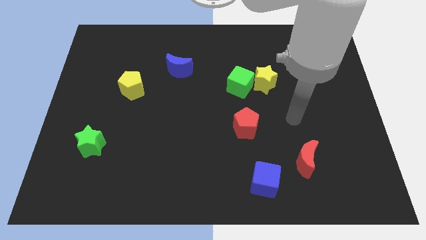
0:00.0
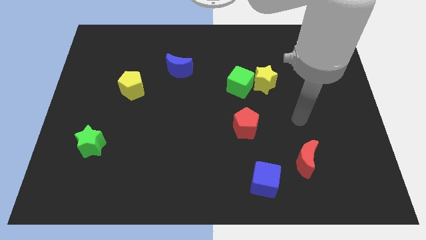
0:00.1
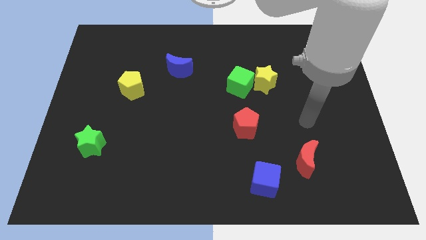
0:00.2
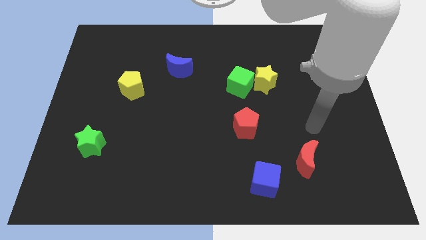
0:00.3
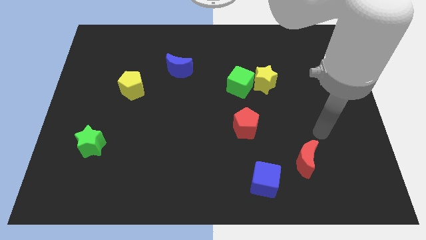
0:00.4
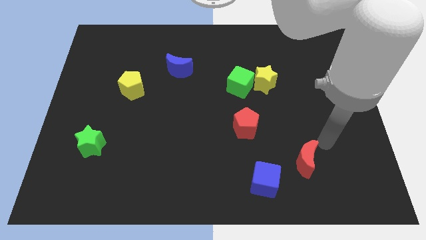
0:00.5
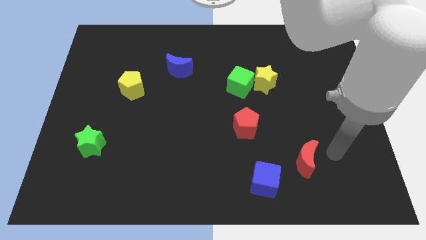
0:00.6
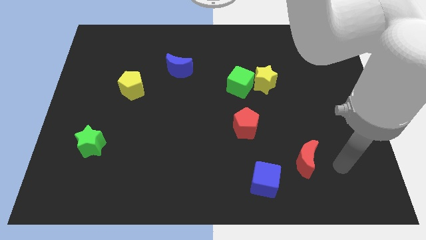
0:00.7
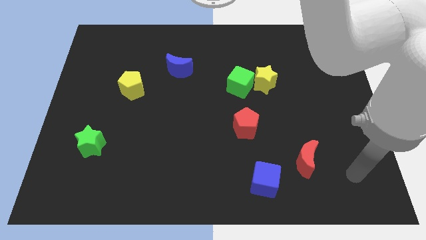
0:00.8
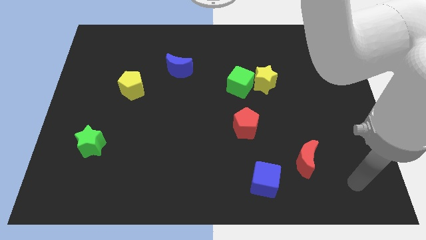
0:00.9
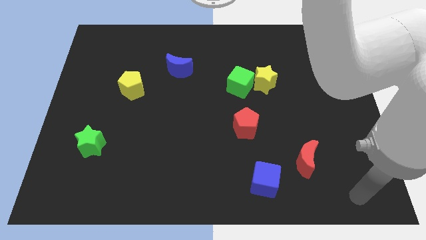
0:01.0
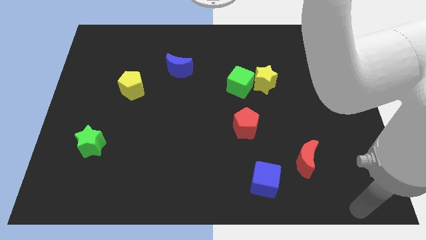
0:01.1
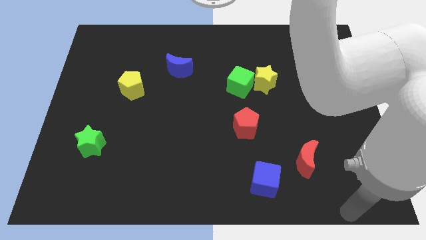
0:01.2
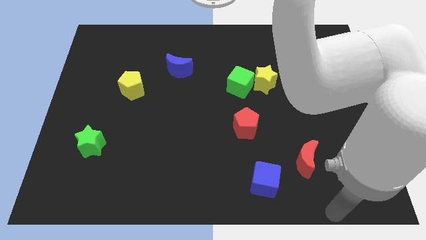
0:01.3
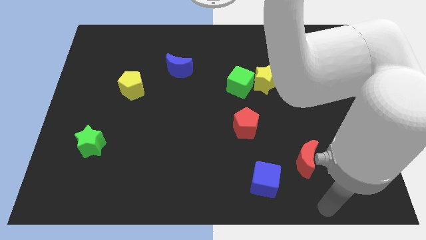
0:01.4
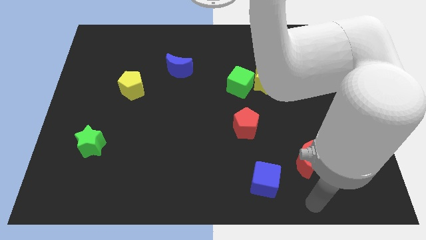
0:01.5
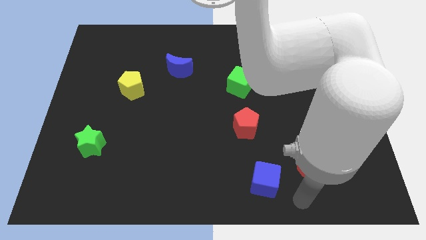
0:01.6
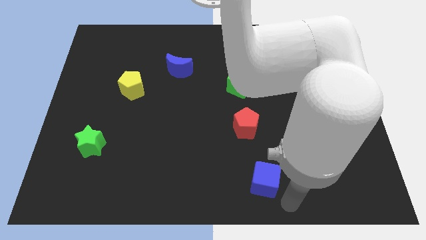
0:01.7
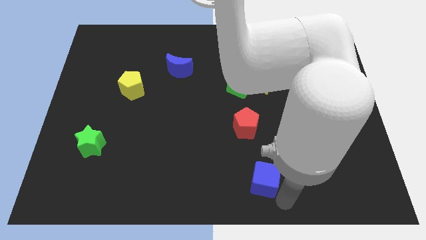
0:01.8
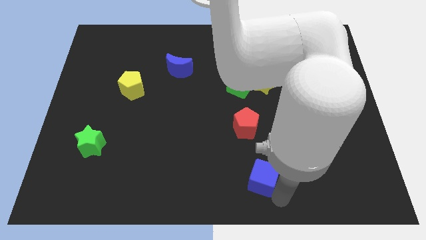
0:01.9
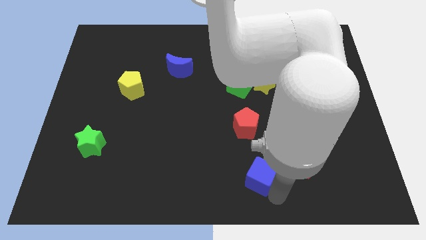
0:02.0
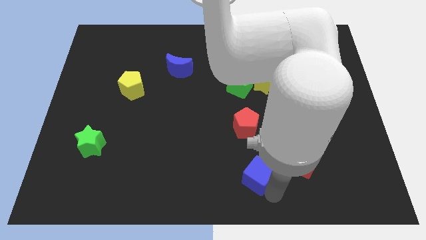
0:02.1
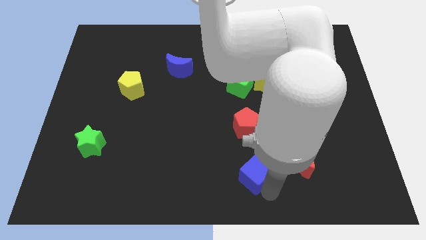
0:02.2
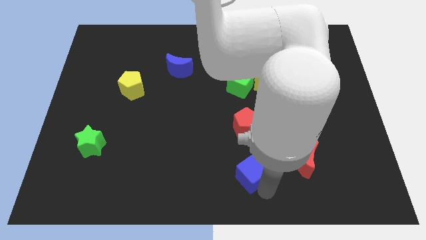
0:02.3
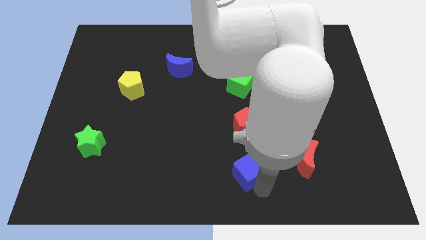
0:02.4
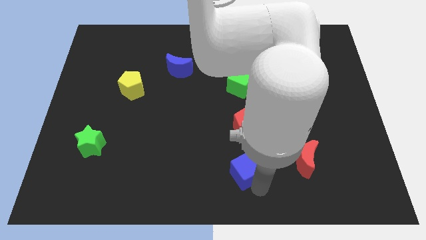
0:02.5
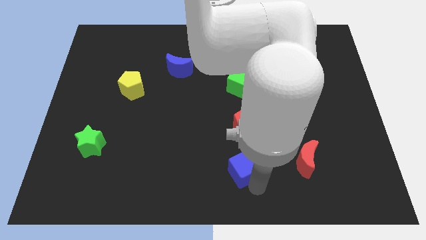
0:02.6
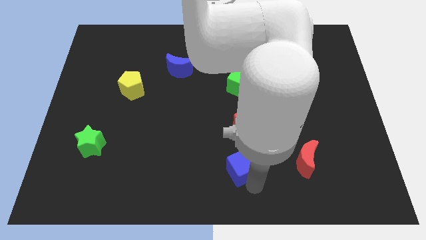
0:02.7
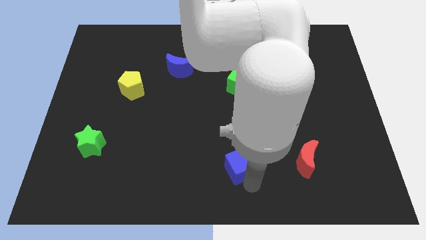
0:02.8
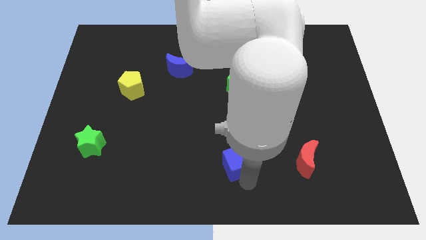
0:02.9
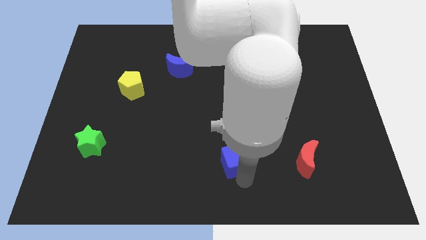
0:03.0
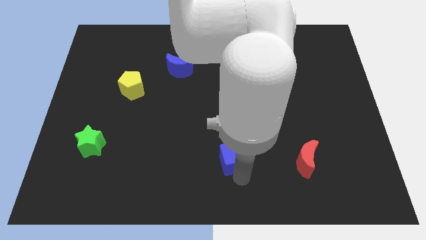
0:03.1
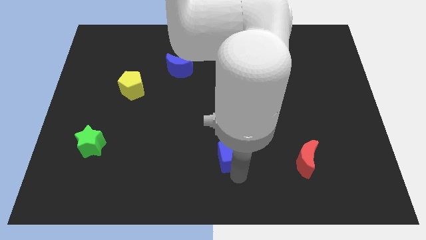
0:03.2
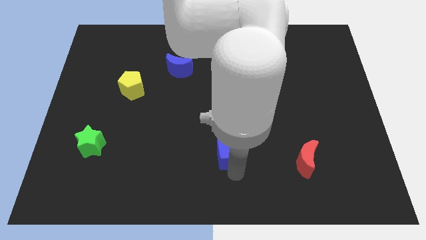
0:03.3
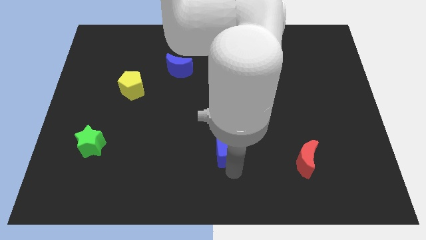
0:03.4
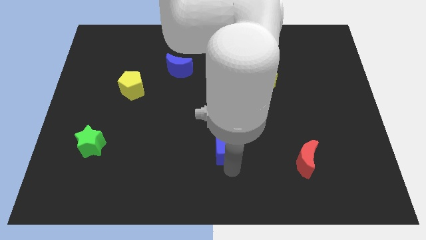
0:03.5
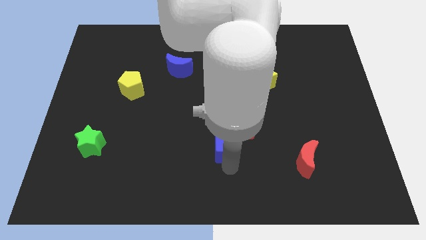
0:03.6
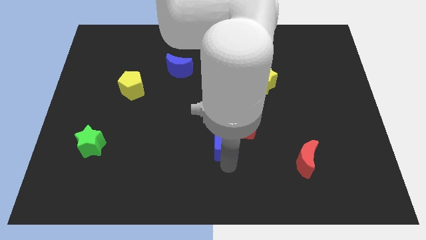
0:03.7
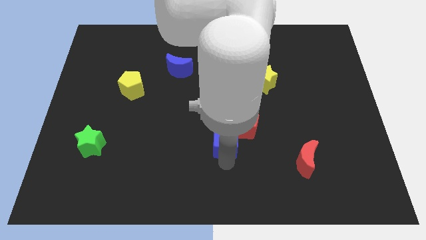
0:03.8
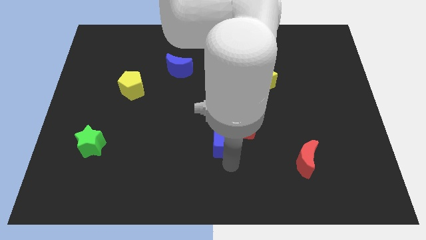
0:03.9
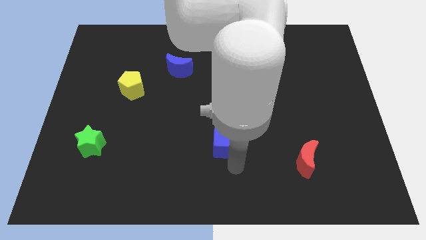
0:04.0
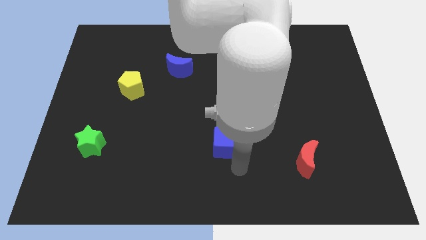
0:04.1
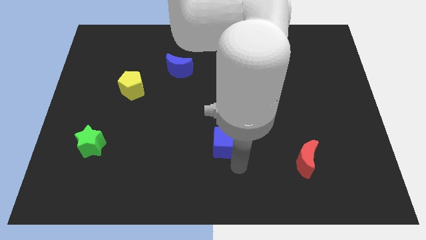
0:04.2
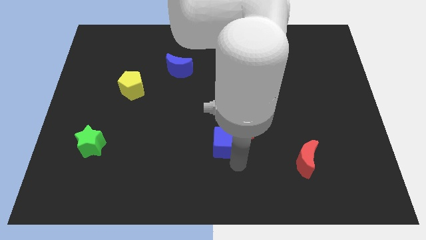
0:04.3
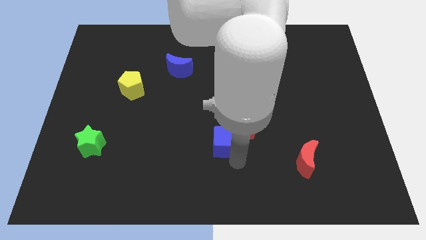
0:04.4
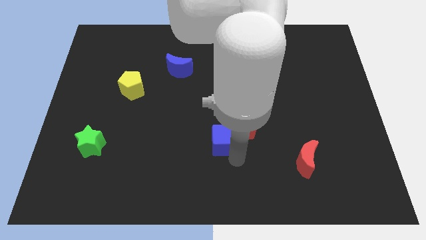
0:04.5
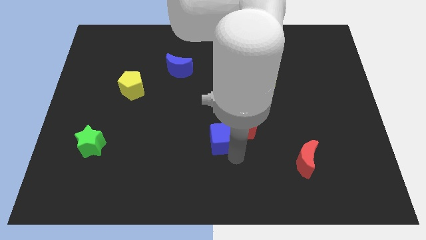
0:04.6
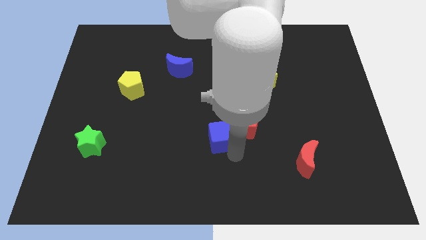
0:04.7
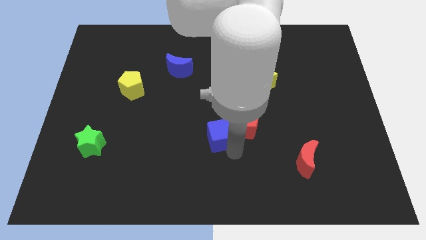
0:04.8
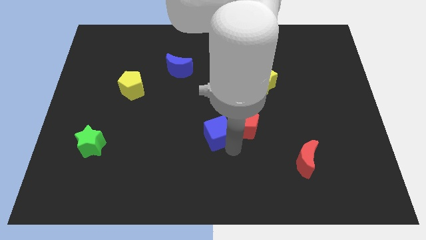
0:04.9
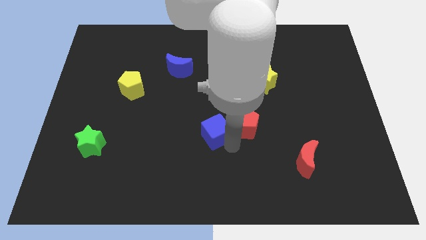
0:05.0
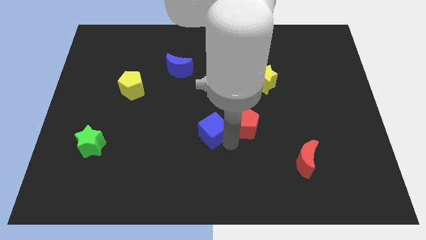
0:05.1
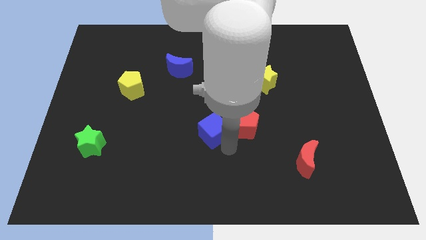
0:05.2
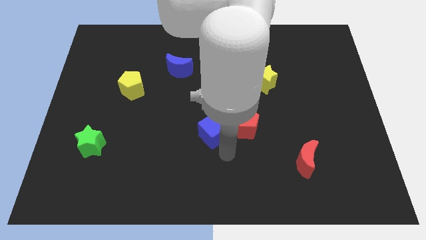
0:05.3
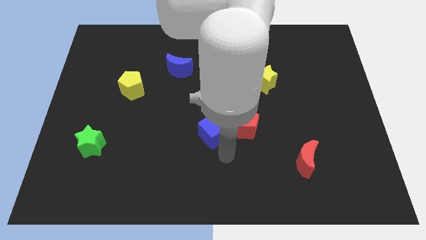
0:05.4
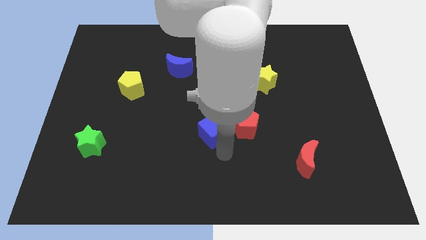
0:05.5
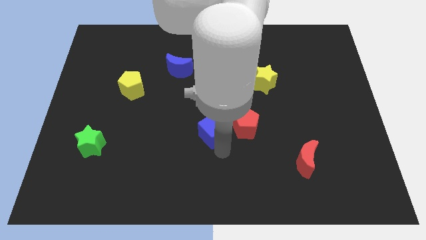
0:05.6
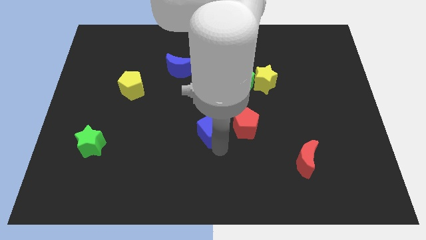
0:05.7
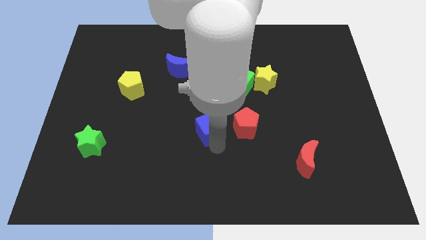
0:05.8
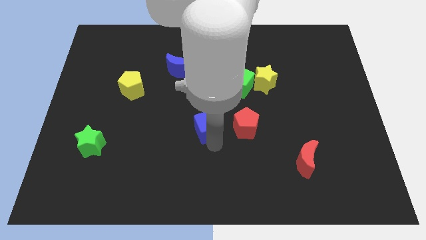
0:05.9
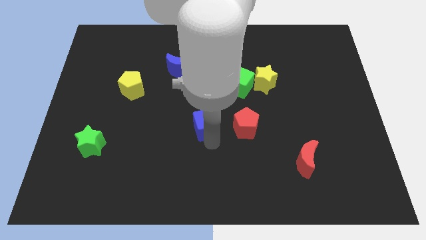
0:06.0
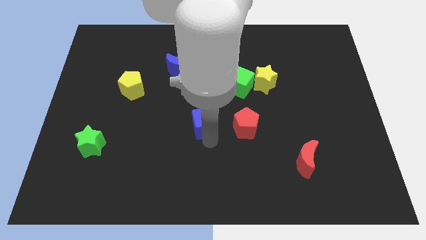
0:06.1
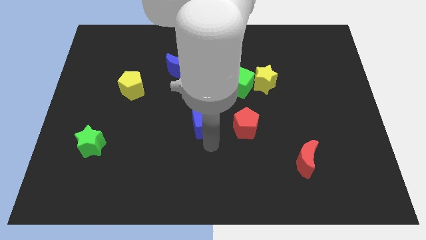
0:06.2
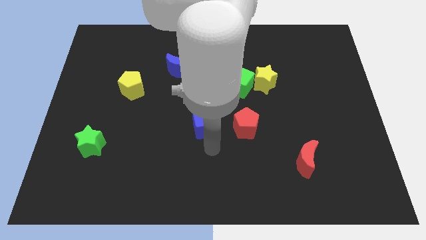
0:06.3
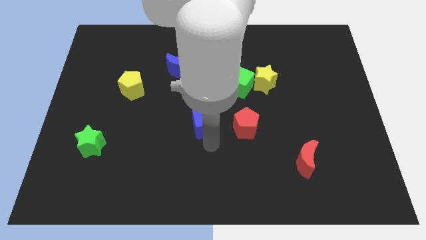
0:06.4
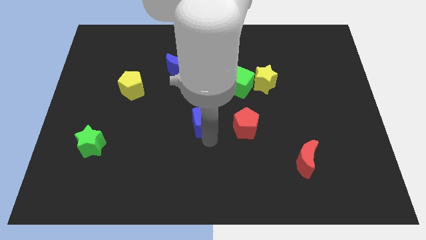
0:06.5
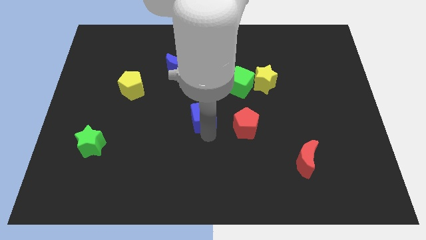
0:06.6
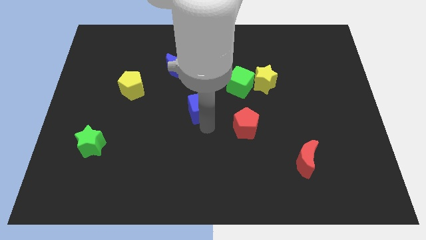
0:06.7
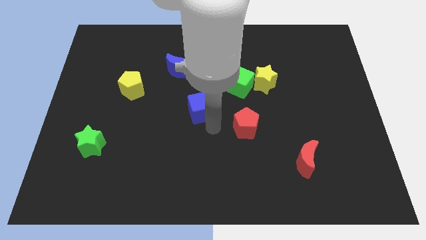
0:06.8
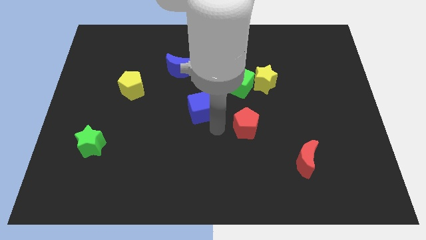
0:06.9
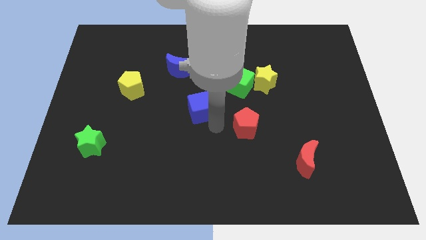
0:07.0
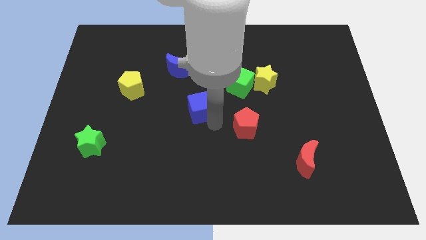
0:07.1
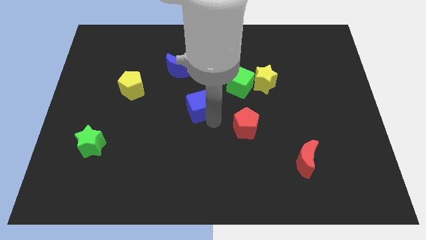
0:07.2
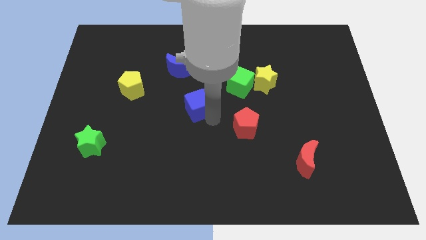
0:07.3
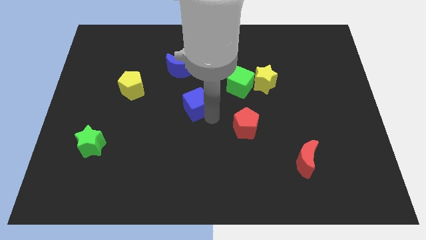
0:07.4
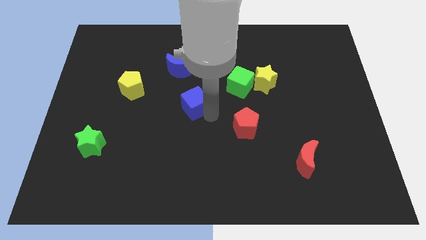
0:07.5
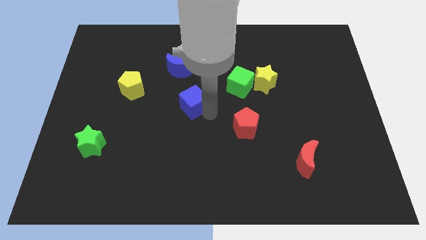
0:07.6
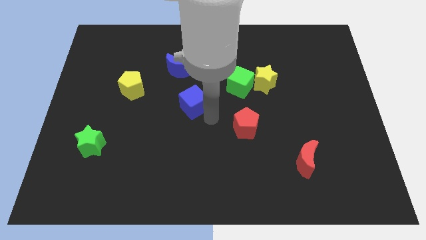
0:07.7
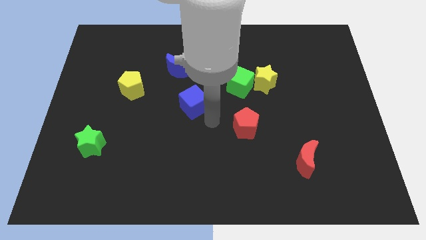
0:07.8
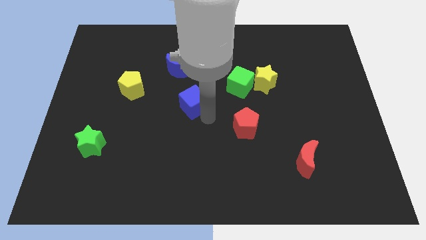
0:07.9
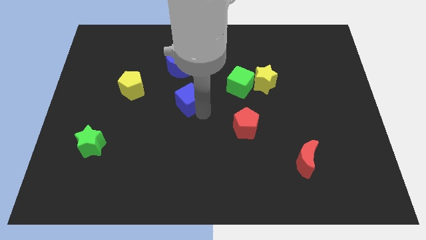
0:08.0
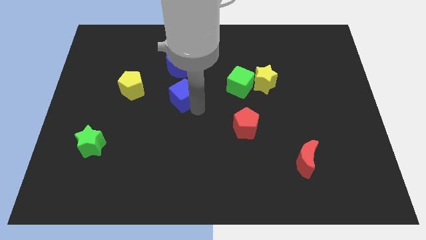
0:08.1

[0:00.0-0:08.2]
push the blue cube to the right of the yellow pentagon

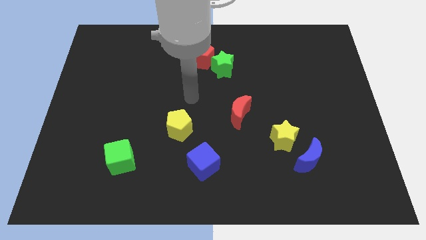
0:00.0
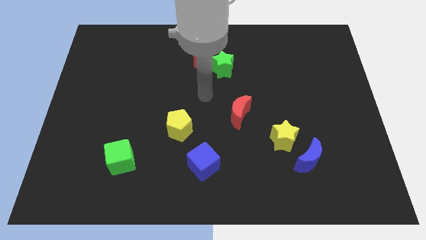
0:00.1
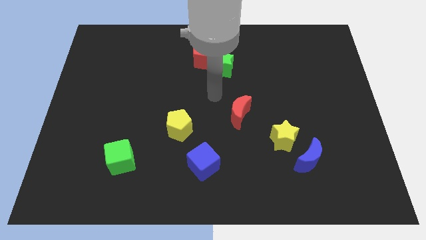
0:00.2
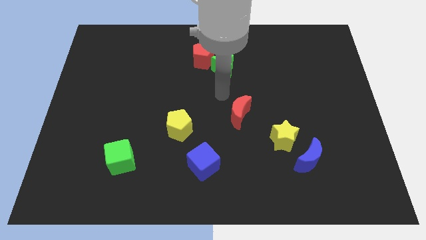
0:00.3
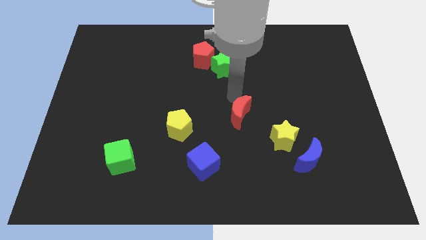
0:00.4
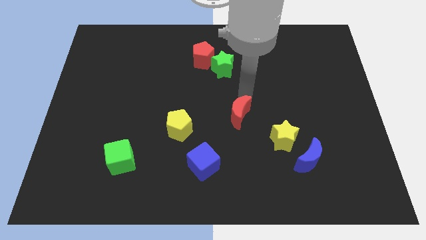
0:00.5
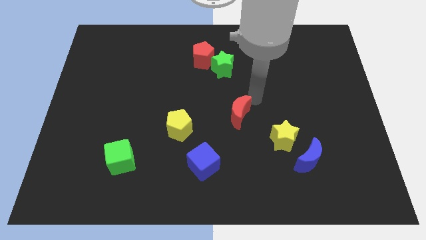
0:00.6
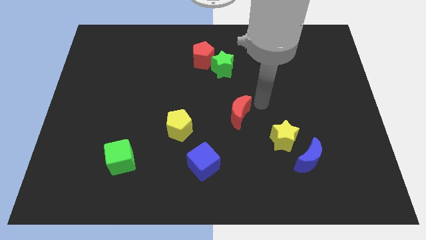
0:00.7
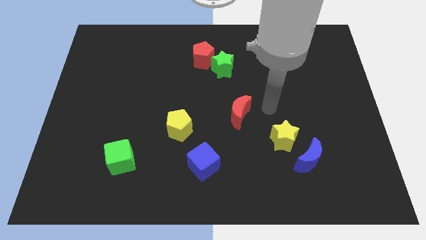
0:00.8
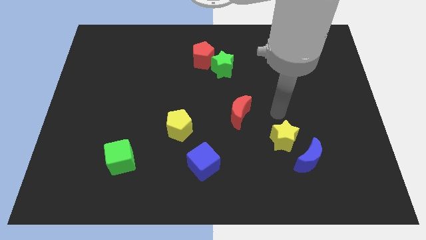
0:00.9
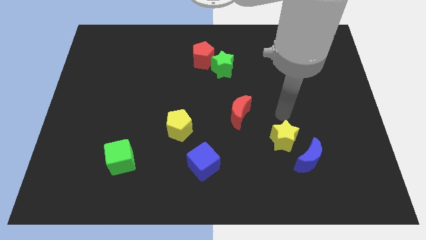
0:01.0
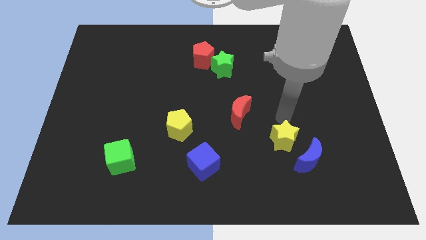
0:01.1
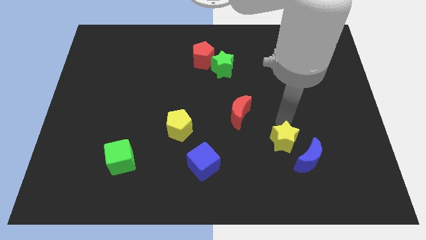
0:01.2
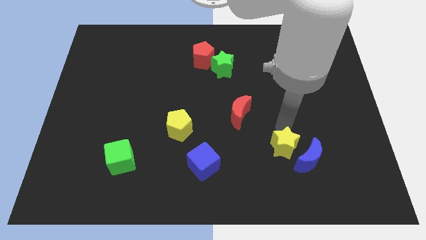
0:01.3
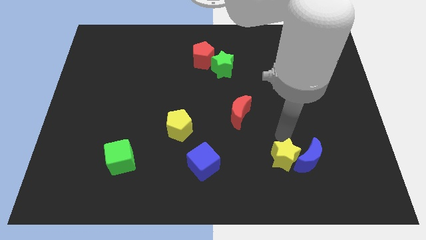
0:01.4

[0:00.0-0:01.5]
move the yellow star to the bottom left of the blue moon
